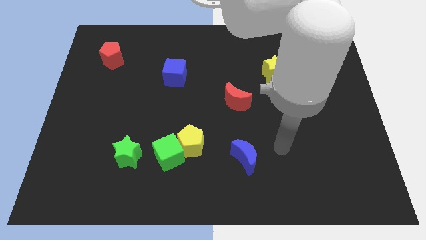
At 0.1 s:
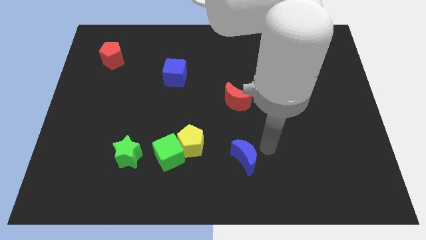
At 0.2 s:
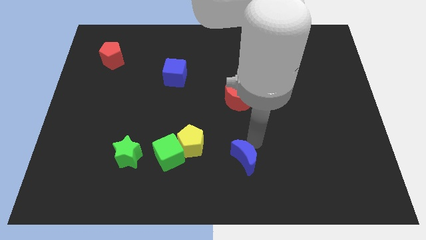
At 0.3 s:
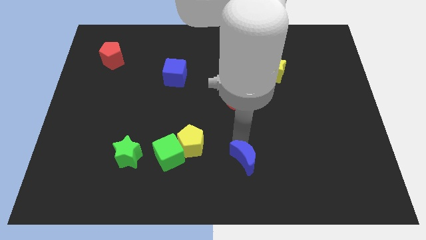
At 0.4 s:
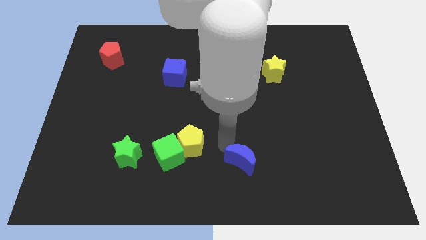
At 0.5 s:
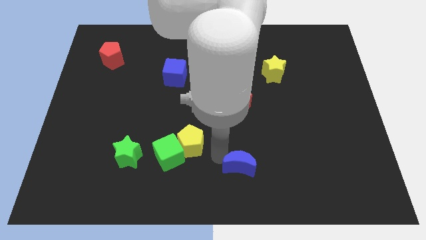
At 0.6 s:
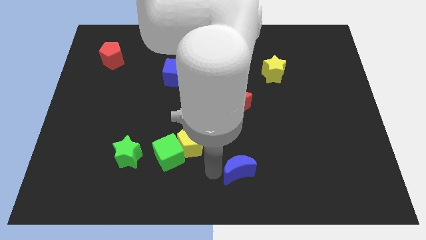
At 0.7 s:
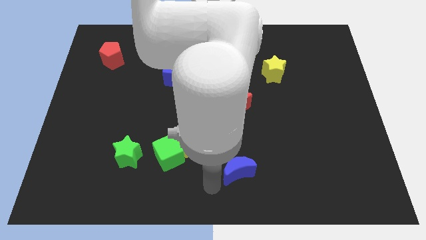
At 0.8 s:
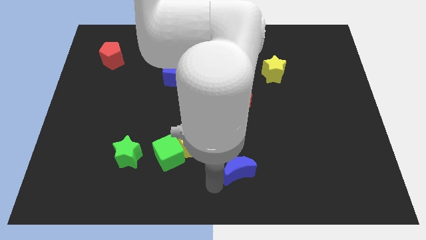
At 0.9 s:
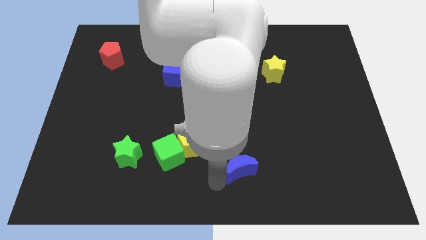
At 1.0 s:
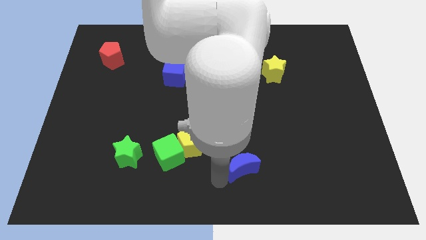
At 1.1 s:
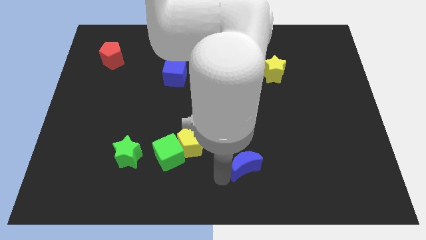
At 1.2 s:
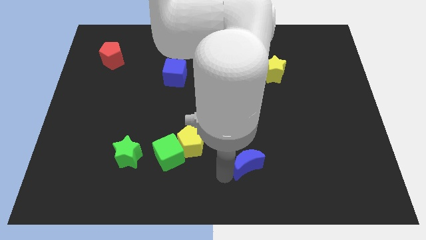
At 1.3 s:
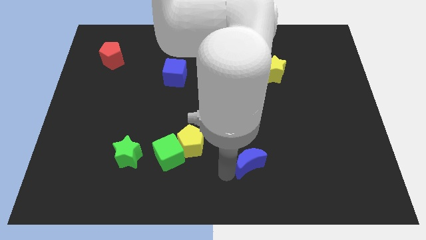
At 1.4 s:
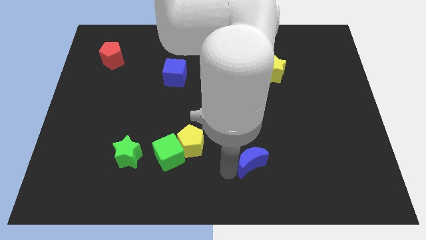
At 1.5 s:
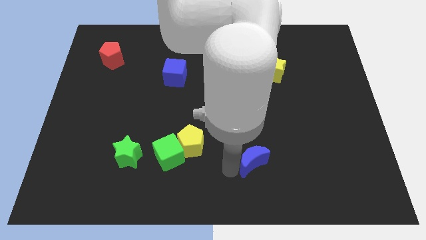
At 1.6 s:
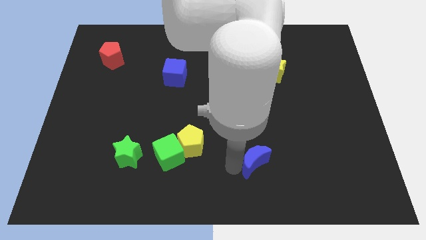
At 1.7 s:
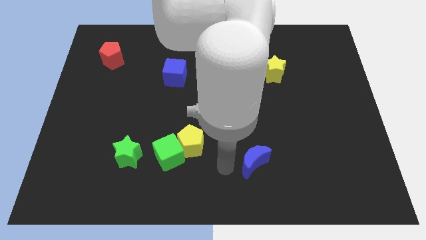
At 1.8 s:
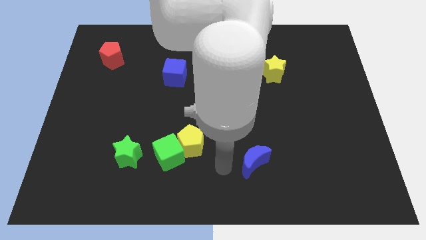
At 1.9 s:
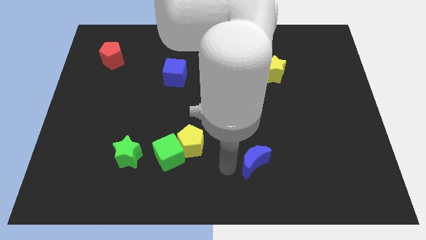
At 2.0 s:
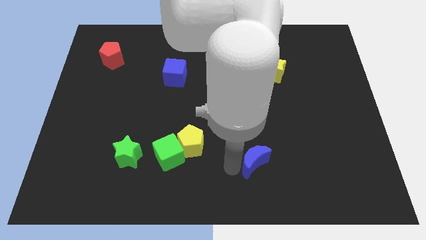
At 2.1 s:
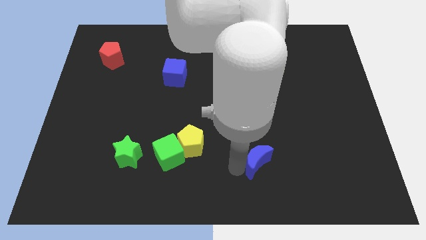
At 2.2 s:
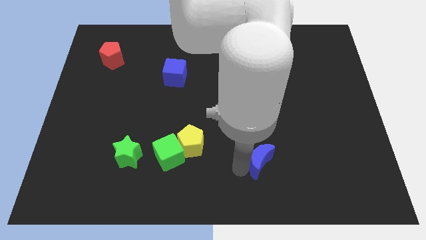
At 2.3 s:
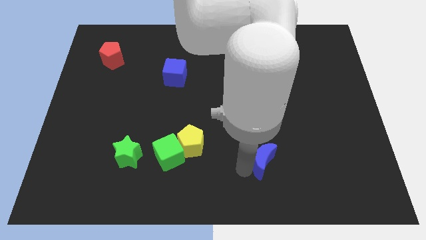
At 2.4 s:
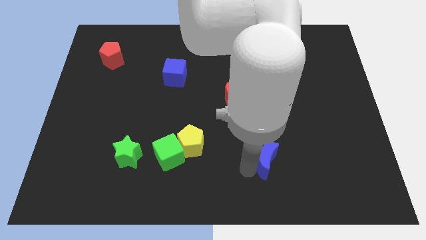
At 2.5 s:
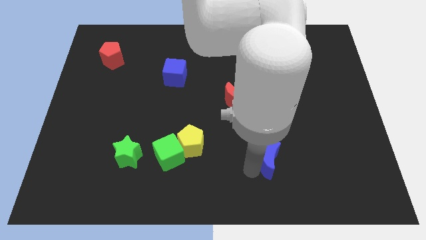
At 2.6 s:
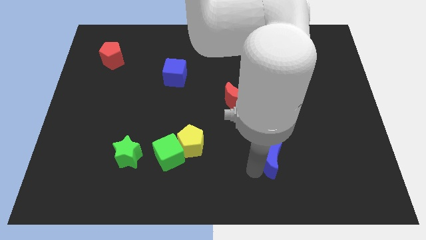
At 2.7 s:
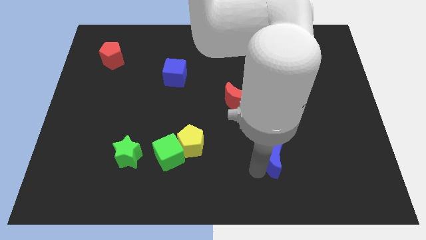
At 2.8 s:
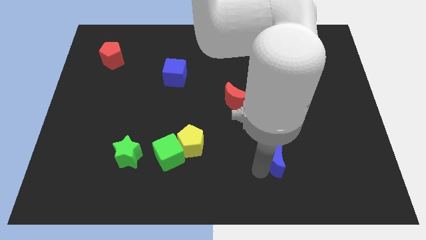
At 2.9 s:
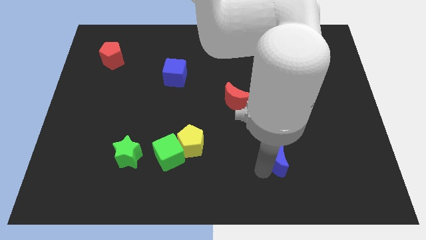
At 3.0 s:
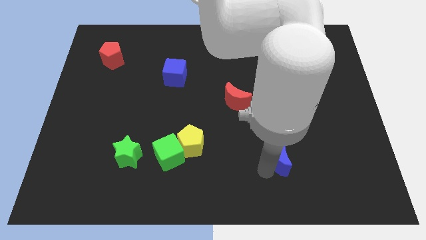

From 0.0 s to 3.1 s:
slightly move the blue moon right

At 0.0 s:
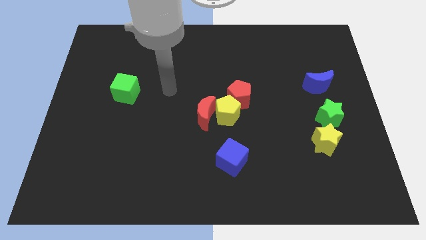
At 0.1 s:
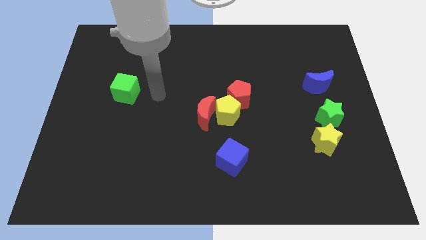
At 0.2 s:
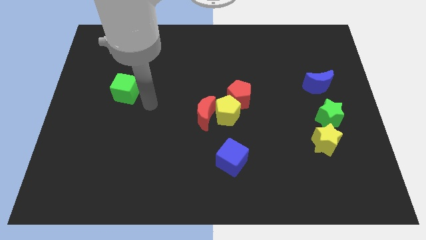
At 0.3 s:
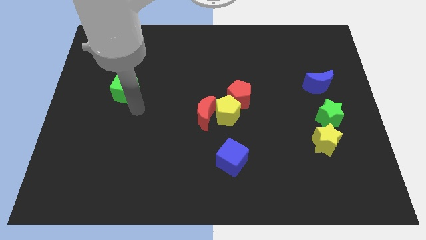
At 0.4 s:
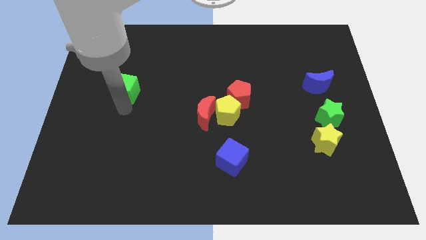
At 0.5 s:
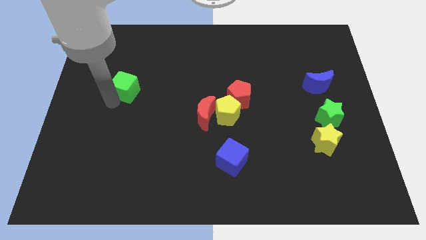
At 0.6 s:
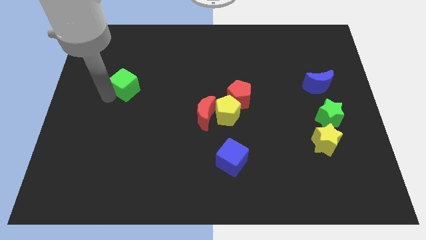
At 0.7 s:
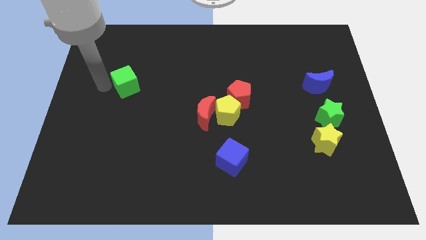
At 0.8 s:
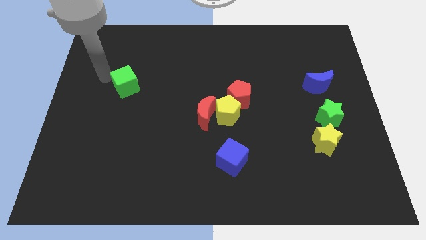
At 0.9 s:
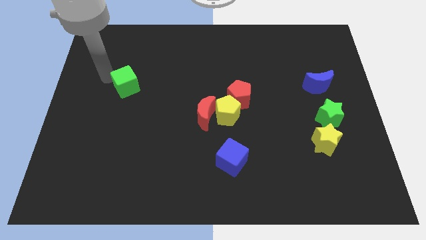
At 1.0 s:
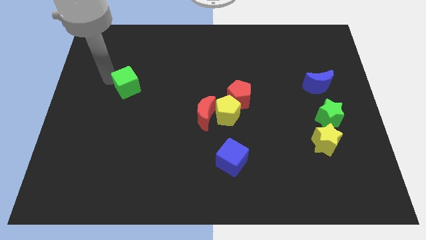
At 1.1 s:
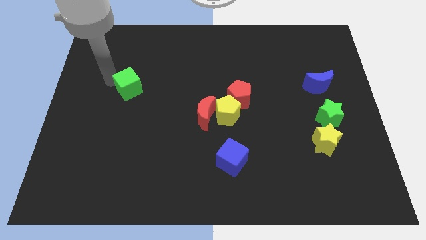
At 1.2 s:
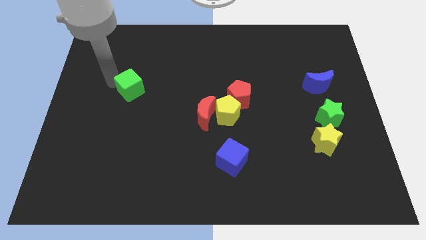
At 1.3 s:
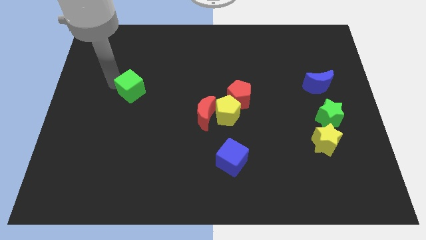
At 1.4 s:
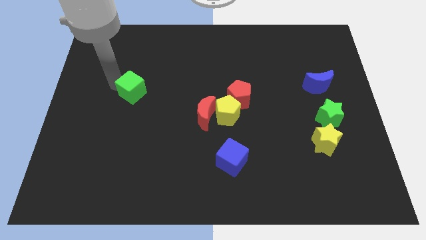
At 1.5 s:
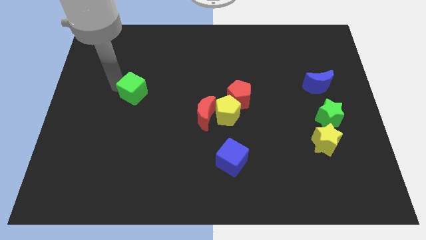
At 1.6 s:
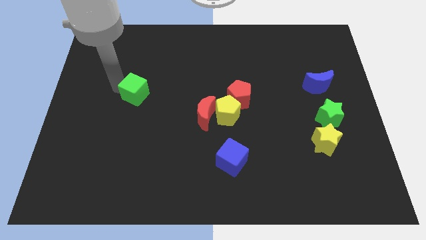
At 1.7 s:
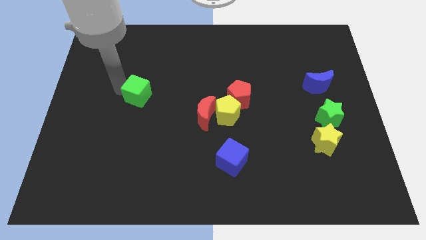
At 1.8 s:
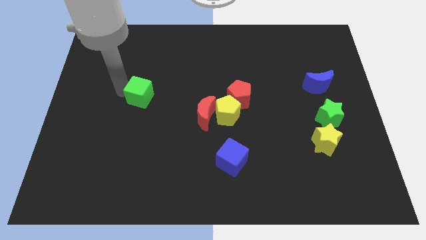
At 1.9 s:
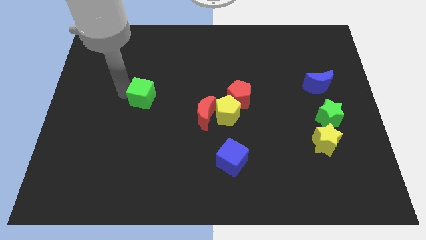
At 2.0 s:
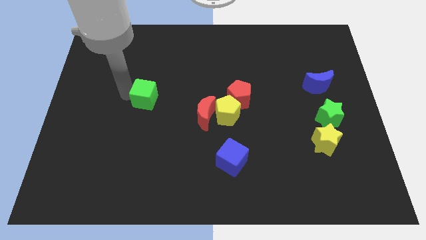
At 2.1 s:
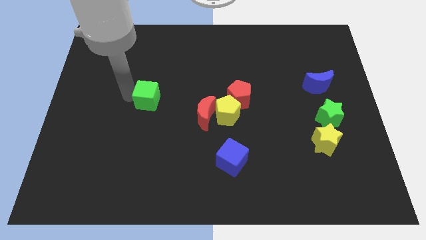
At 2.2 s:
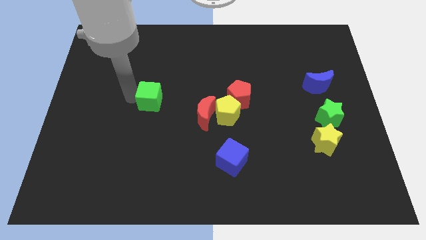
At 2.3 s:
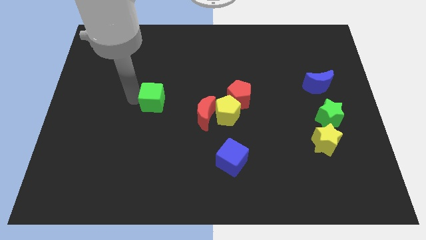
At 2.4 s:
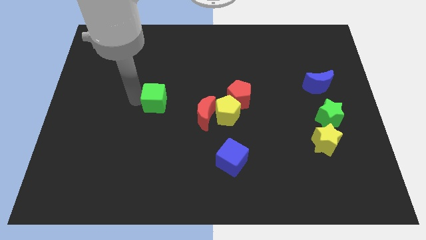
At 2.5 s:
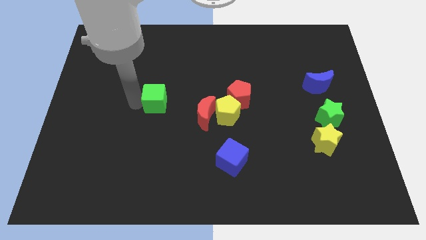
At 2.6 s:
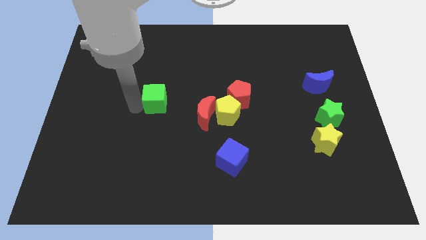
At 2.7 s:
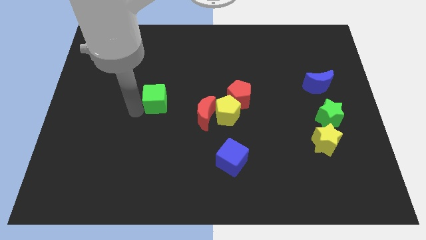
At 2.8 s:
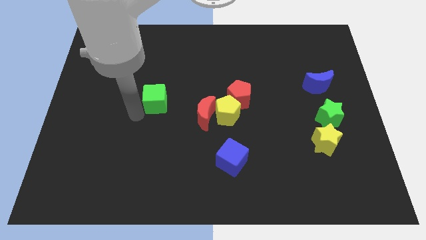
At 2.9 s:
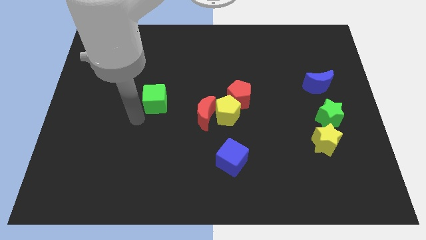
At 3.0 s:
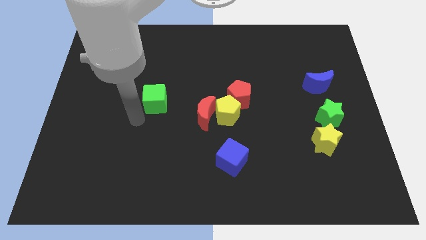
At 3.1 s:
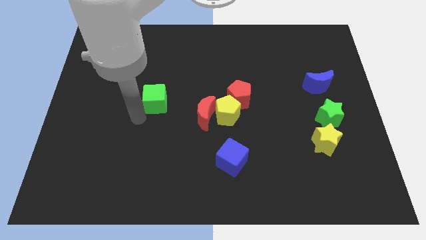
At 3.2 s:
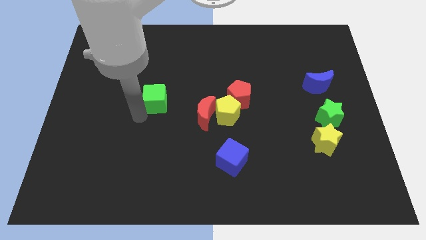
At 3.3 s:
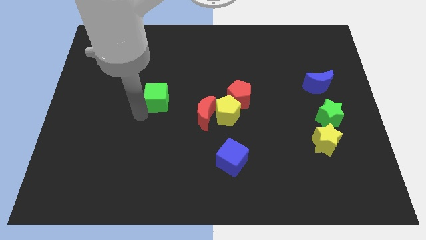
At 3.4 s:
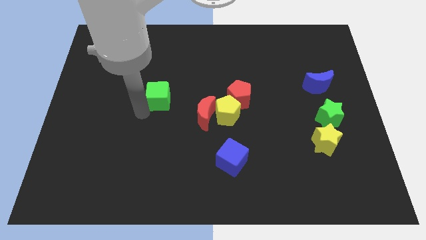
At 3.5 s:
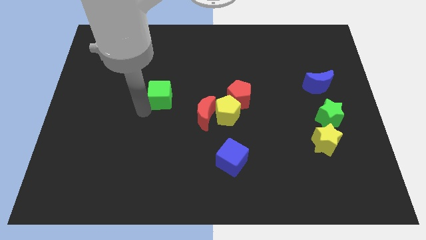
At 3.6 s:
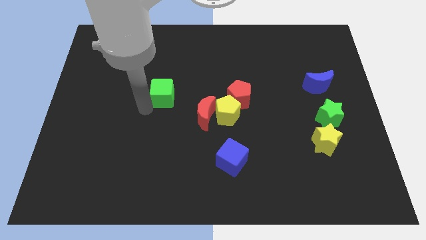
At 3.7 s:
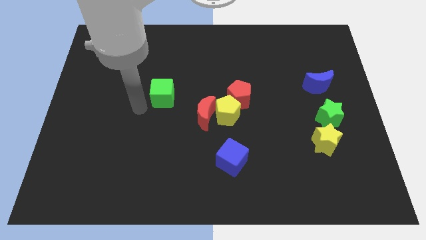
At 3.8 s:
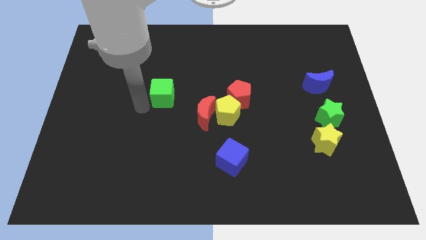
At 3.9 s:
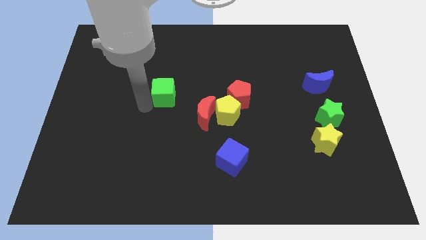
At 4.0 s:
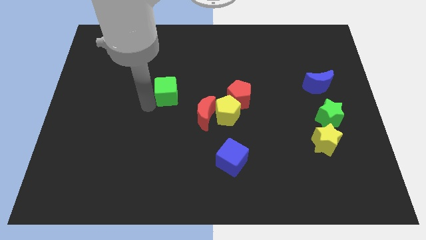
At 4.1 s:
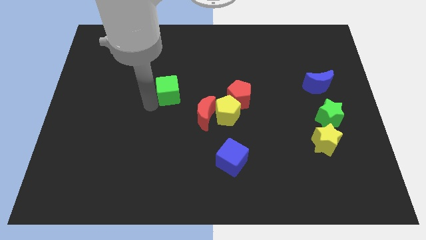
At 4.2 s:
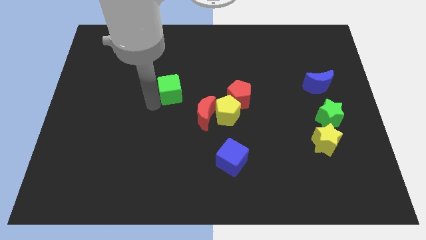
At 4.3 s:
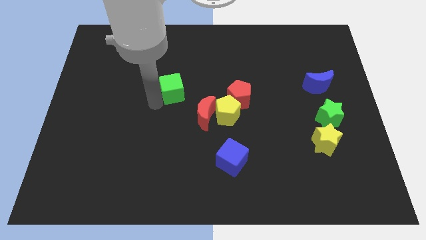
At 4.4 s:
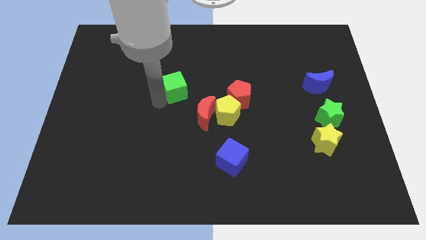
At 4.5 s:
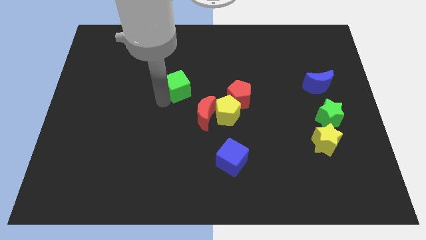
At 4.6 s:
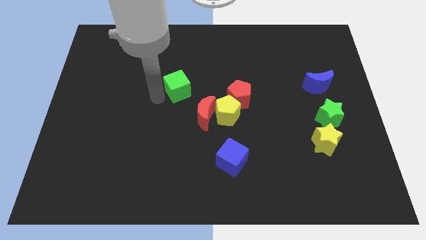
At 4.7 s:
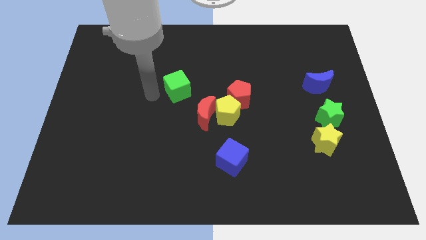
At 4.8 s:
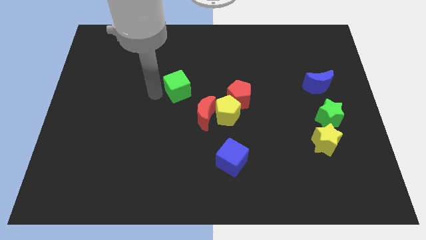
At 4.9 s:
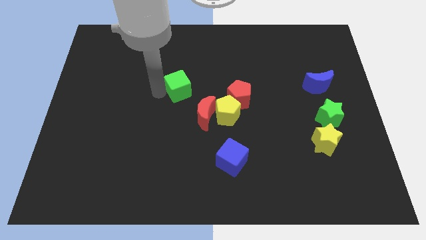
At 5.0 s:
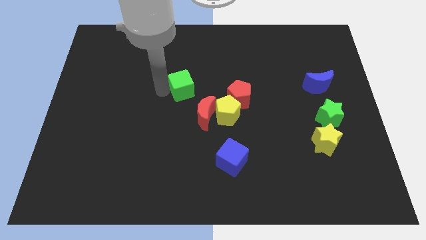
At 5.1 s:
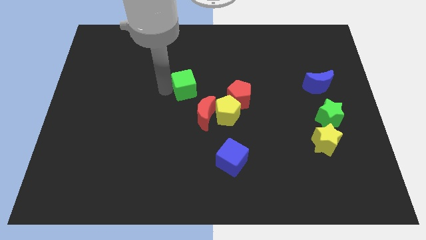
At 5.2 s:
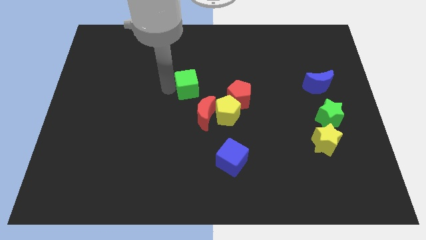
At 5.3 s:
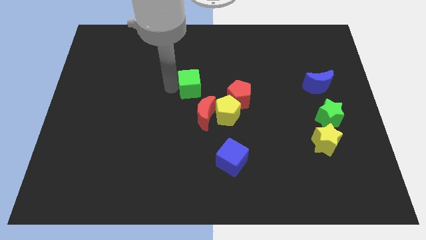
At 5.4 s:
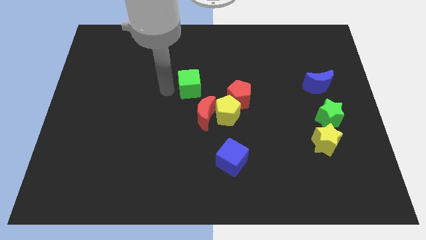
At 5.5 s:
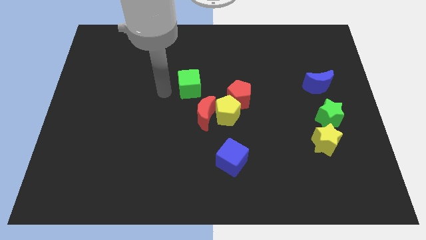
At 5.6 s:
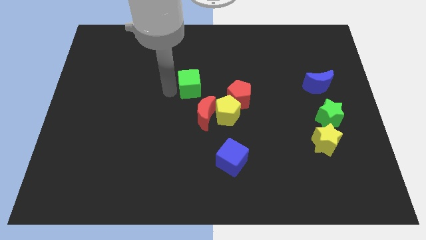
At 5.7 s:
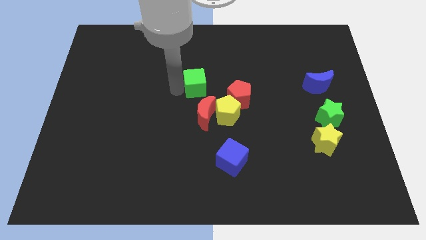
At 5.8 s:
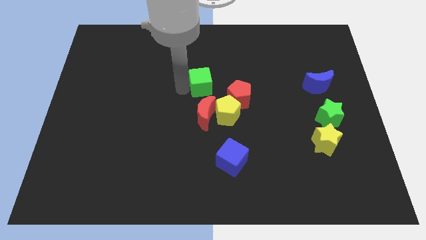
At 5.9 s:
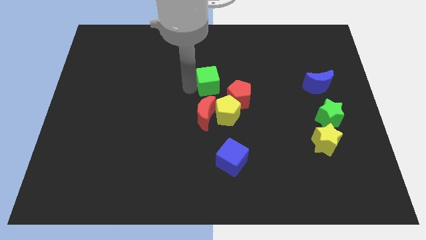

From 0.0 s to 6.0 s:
slide the green cube right
